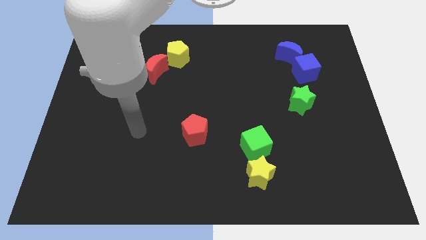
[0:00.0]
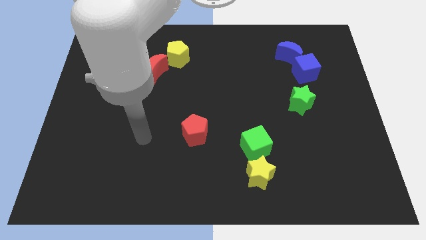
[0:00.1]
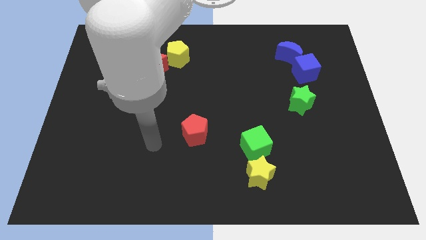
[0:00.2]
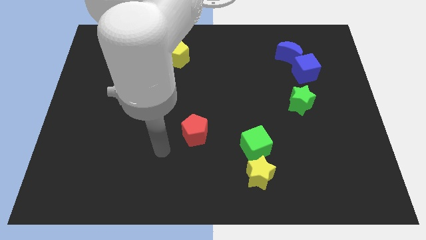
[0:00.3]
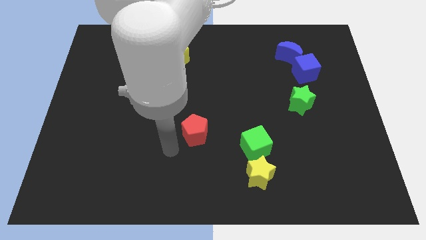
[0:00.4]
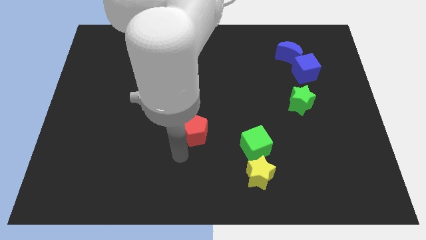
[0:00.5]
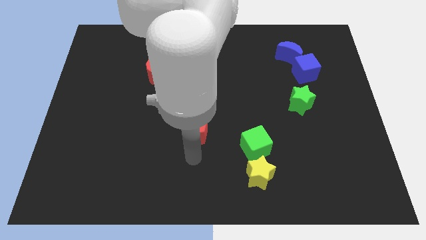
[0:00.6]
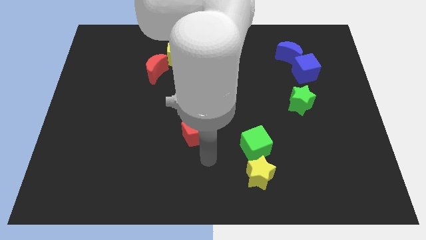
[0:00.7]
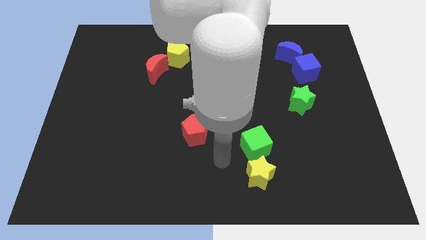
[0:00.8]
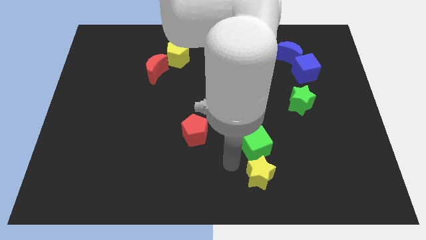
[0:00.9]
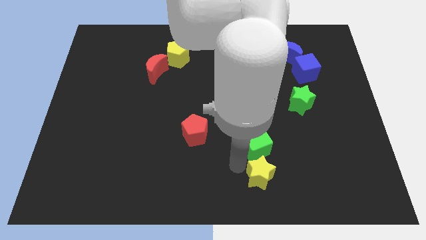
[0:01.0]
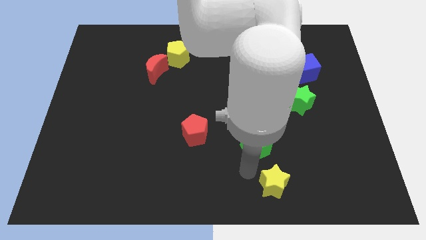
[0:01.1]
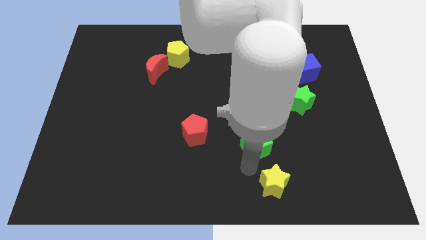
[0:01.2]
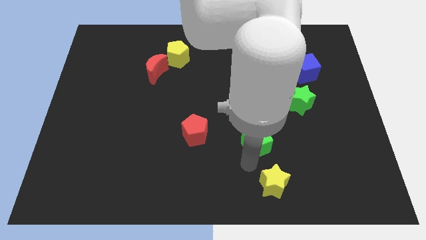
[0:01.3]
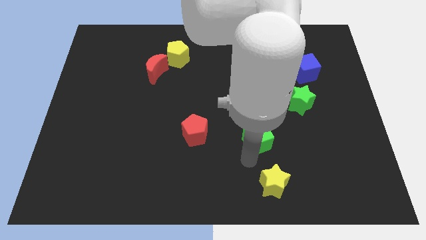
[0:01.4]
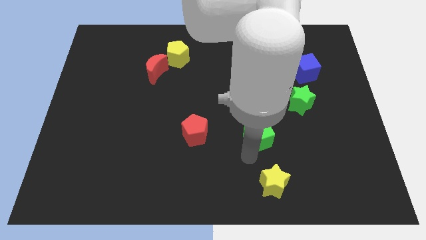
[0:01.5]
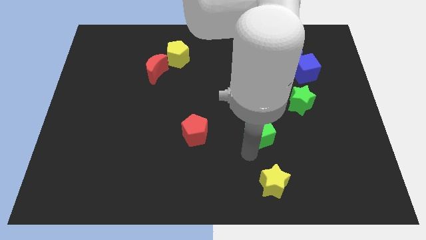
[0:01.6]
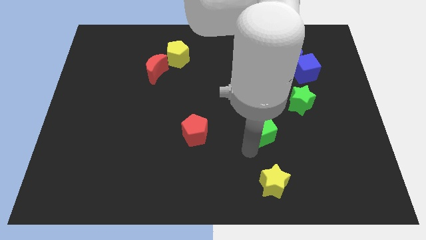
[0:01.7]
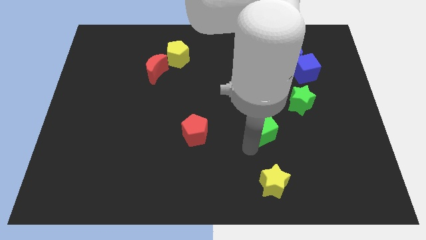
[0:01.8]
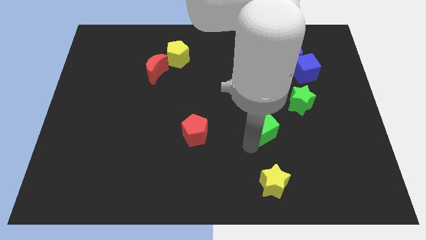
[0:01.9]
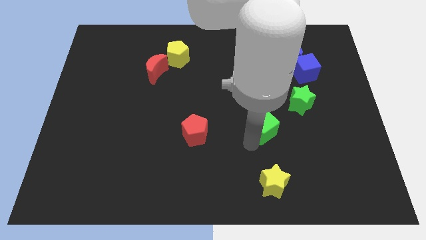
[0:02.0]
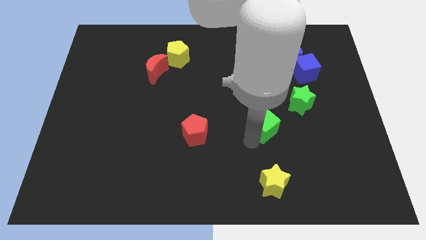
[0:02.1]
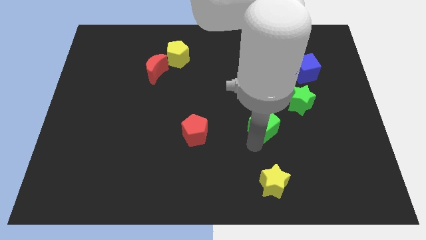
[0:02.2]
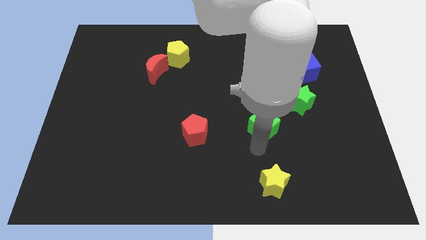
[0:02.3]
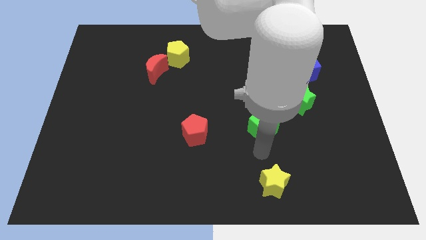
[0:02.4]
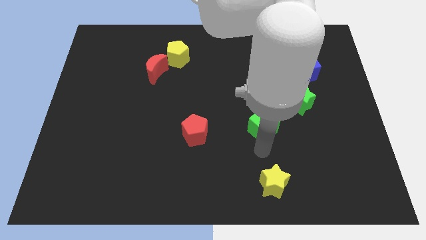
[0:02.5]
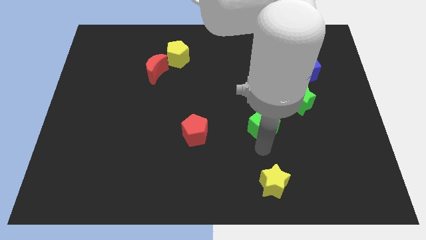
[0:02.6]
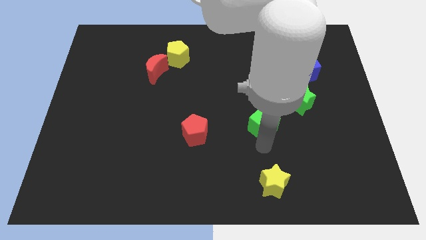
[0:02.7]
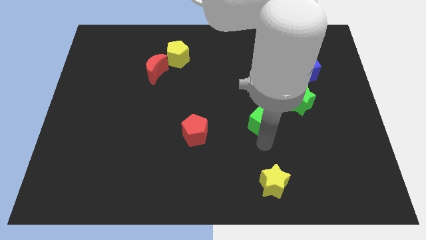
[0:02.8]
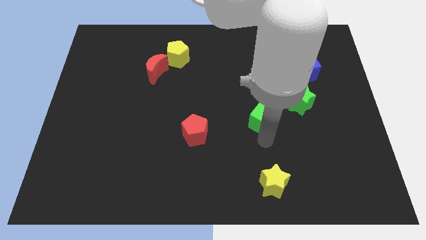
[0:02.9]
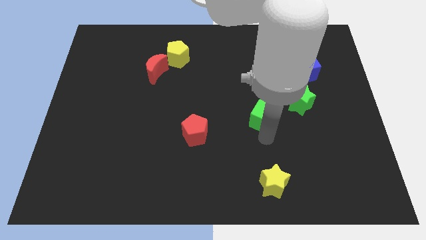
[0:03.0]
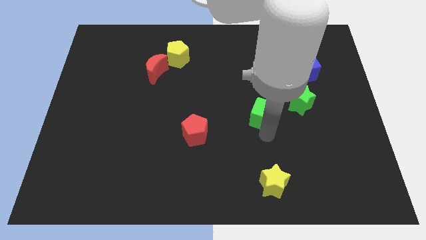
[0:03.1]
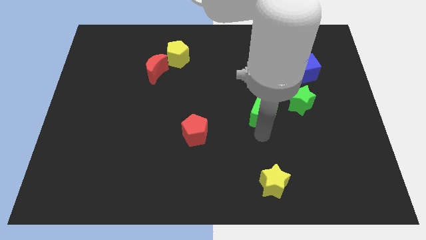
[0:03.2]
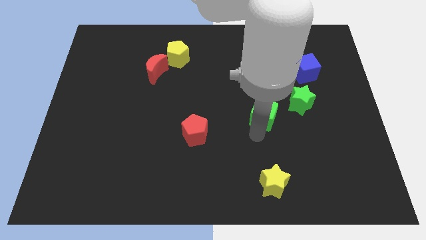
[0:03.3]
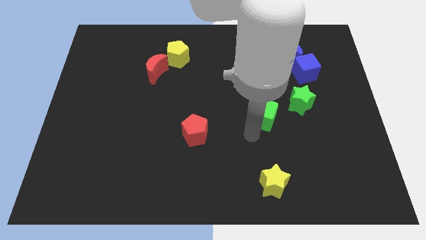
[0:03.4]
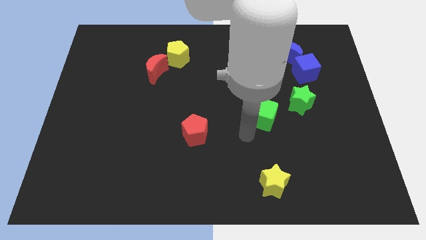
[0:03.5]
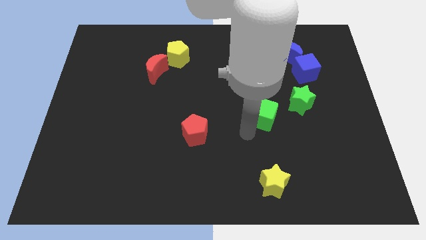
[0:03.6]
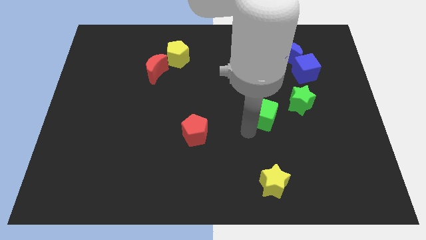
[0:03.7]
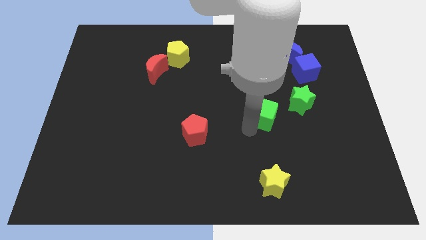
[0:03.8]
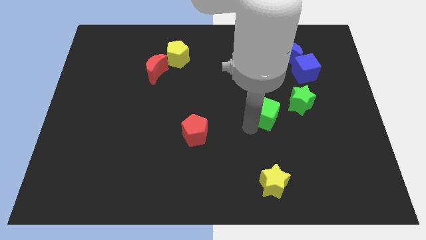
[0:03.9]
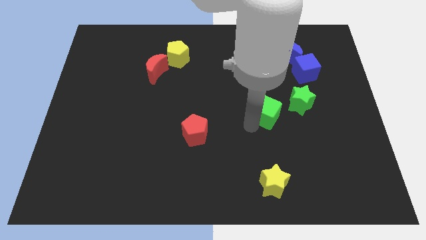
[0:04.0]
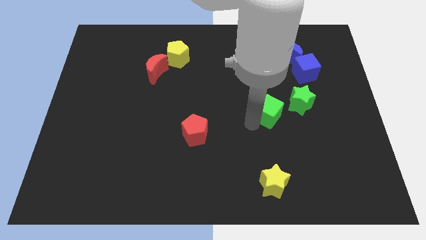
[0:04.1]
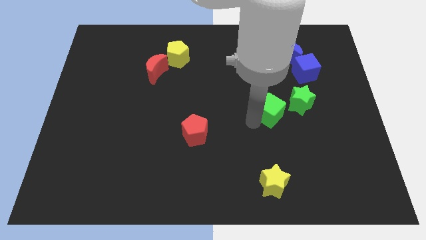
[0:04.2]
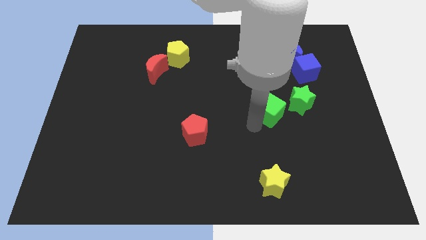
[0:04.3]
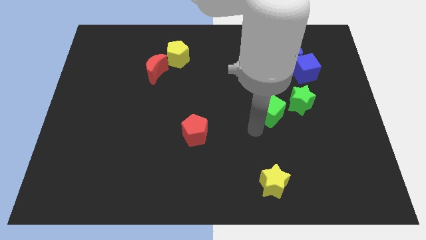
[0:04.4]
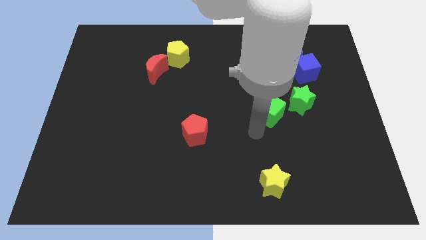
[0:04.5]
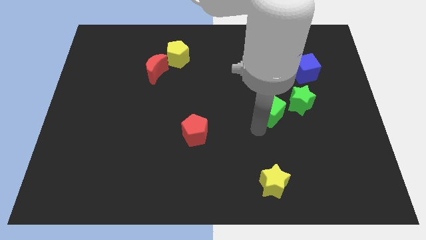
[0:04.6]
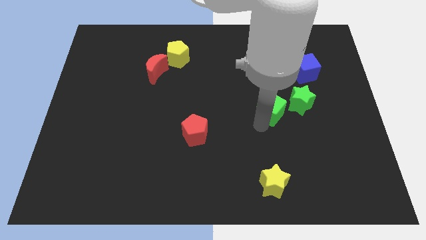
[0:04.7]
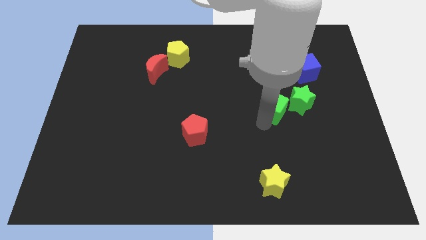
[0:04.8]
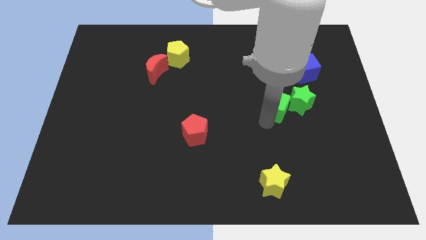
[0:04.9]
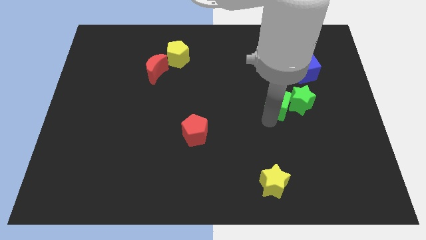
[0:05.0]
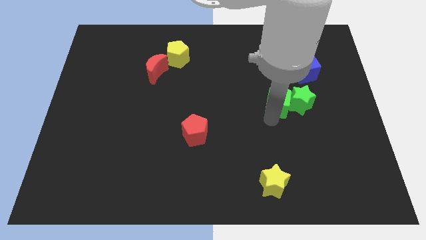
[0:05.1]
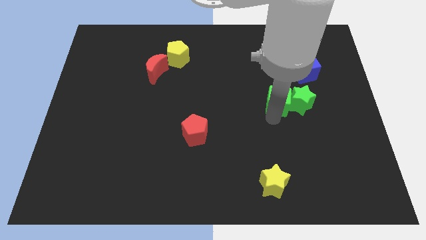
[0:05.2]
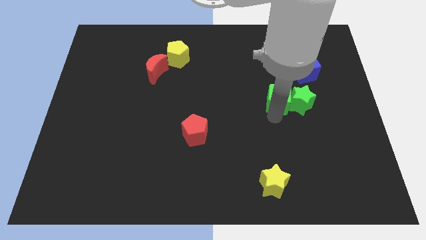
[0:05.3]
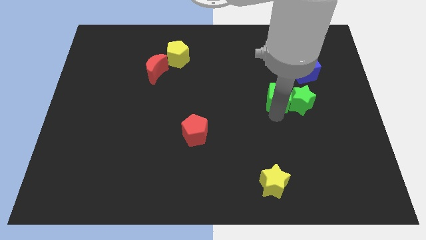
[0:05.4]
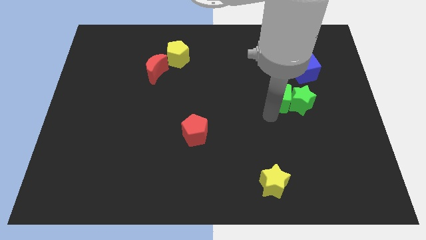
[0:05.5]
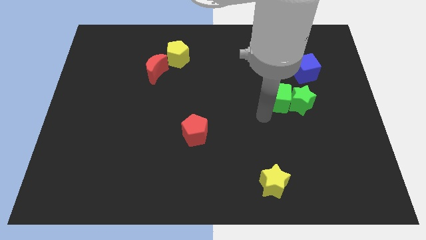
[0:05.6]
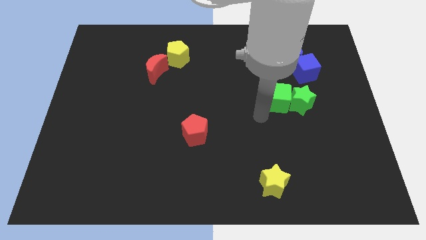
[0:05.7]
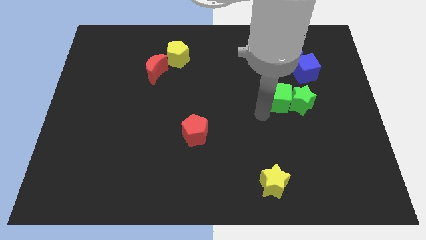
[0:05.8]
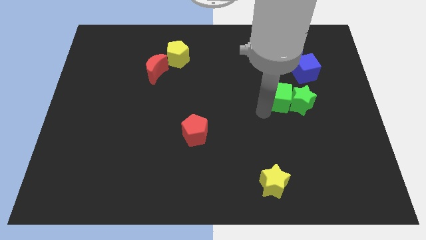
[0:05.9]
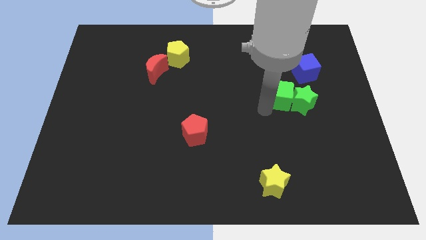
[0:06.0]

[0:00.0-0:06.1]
push the green cube below the blue moon

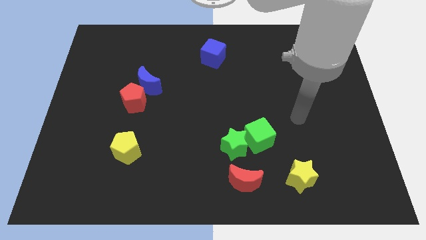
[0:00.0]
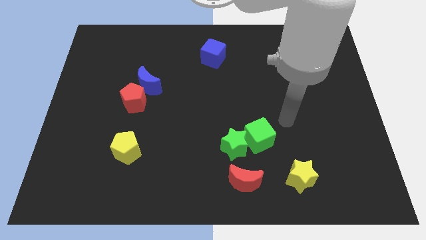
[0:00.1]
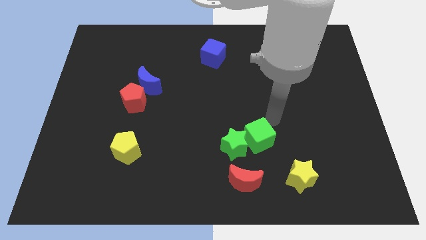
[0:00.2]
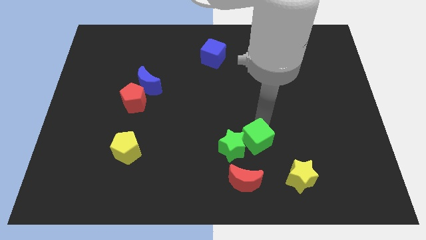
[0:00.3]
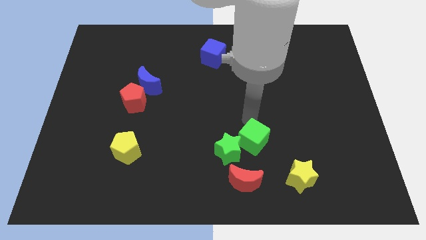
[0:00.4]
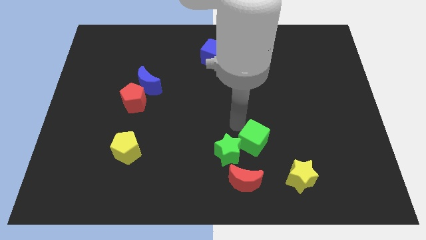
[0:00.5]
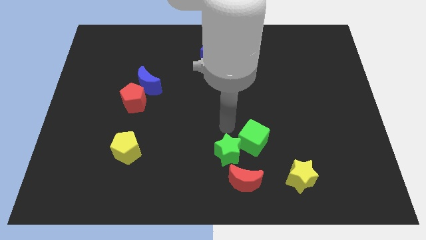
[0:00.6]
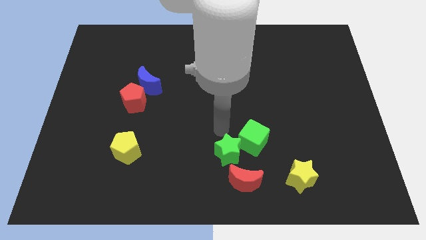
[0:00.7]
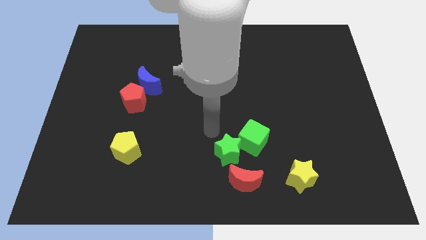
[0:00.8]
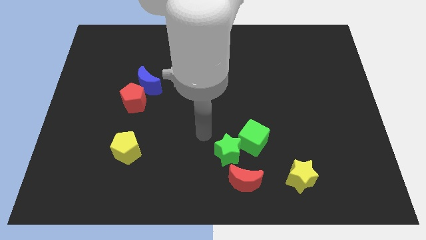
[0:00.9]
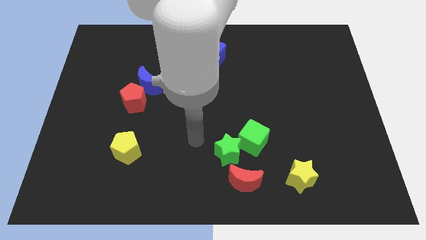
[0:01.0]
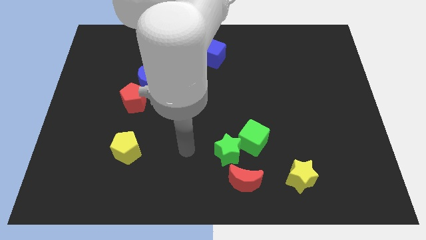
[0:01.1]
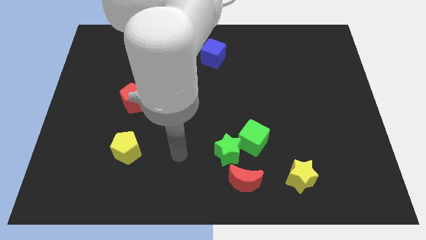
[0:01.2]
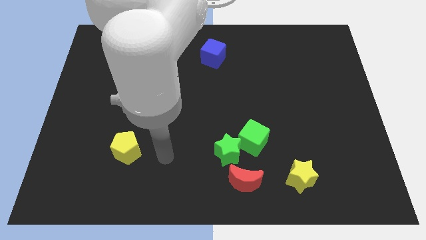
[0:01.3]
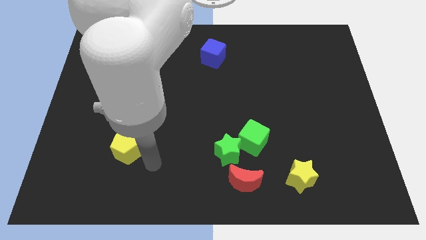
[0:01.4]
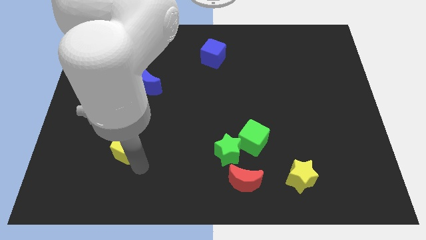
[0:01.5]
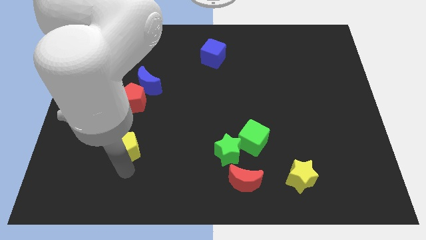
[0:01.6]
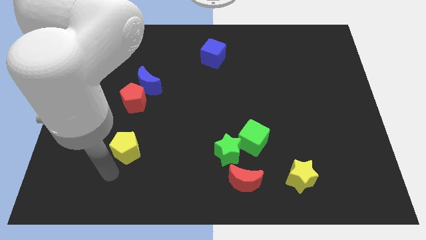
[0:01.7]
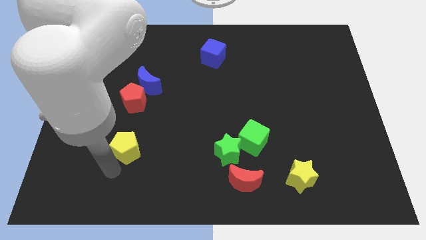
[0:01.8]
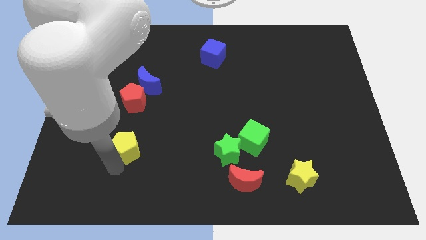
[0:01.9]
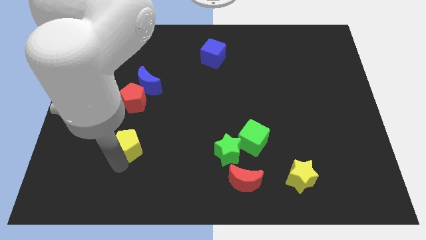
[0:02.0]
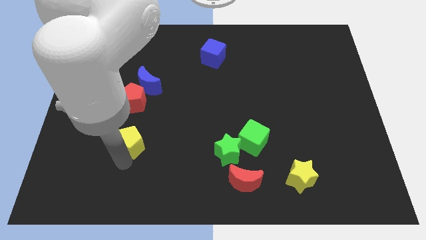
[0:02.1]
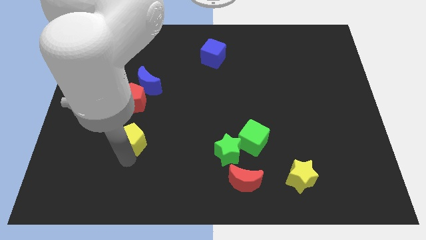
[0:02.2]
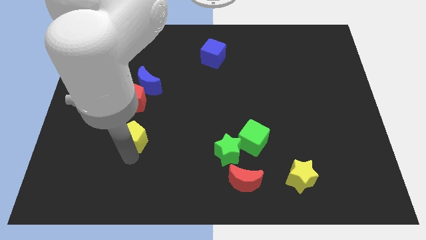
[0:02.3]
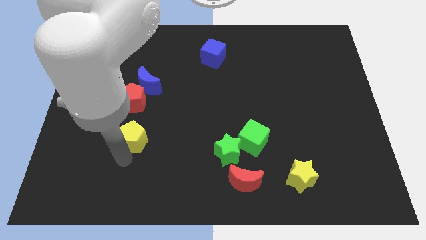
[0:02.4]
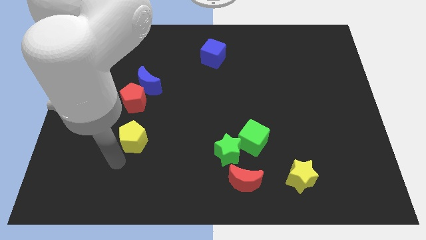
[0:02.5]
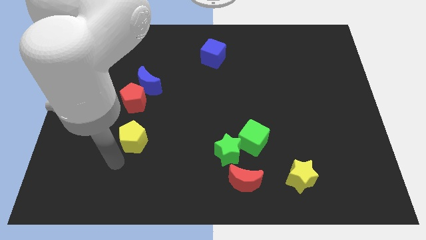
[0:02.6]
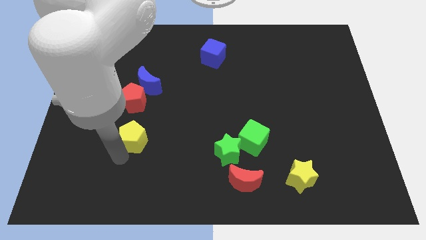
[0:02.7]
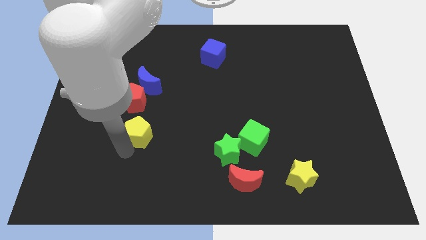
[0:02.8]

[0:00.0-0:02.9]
move the yellow pentagon diagonally down and to the right of the red pentagon
